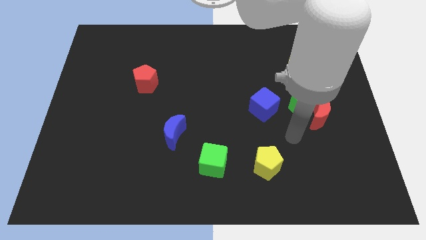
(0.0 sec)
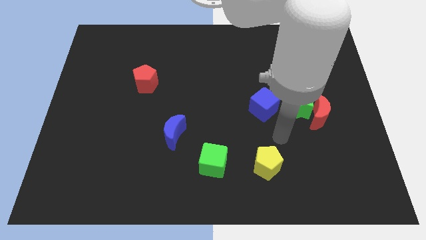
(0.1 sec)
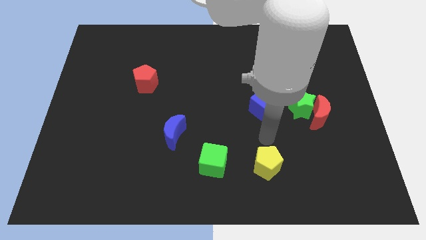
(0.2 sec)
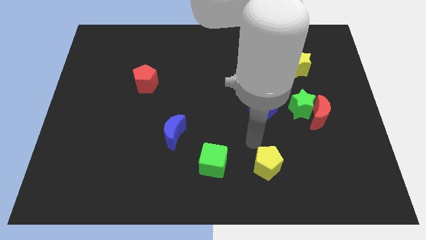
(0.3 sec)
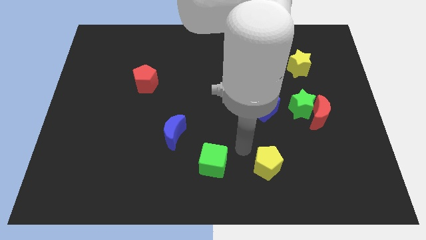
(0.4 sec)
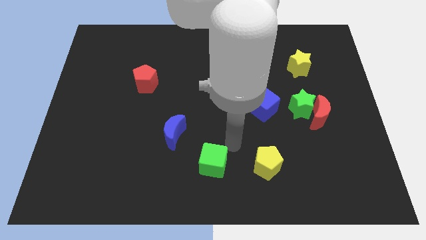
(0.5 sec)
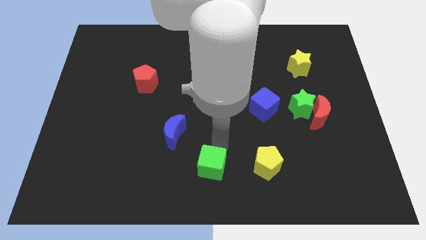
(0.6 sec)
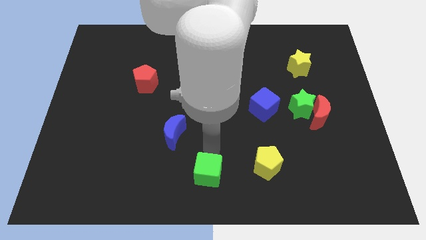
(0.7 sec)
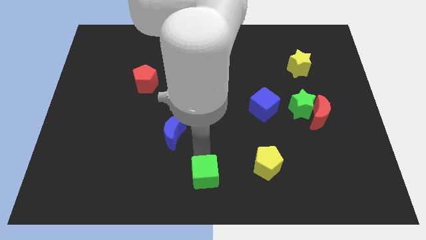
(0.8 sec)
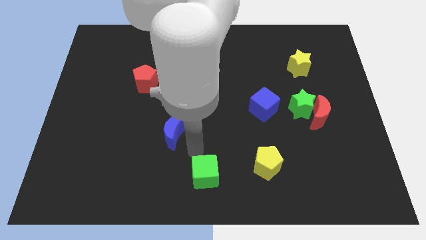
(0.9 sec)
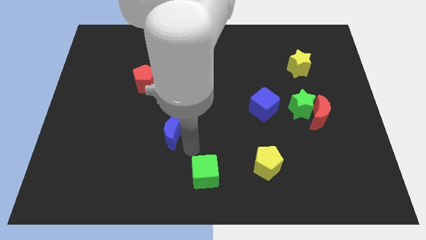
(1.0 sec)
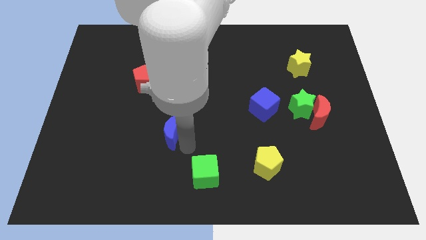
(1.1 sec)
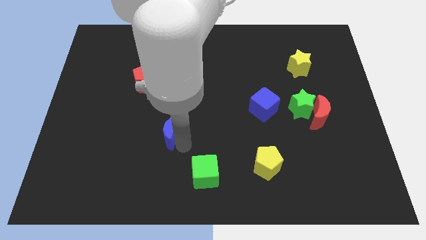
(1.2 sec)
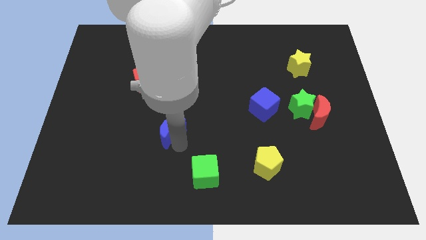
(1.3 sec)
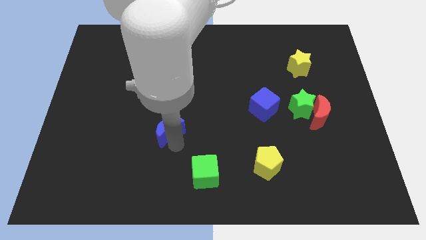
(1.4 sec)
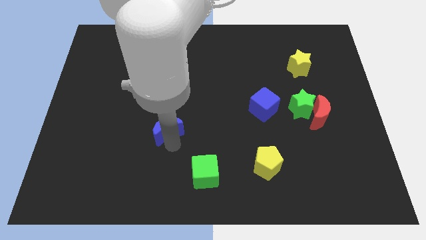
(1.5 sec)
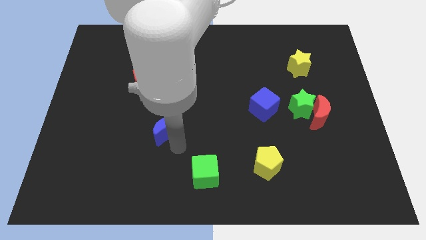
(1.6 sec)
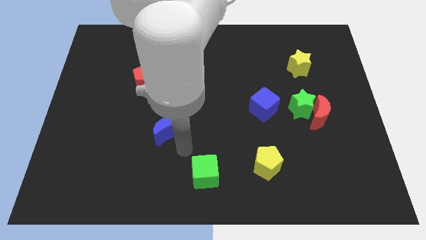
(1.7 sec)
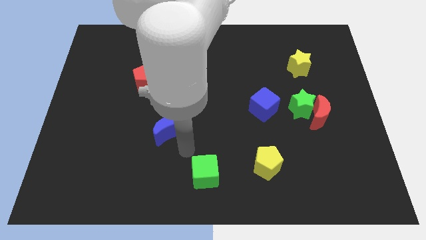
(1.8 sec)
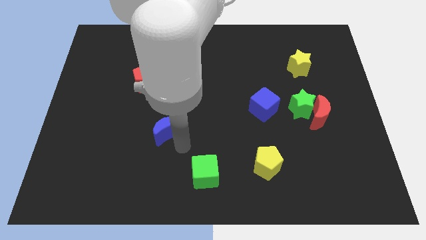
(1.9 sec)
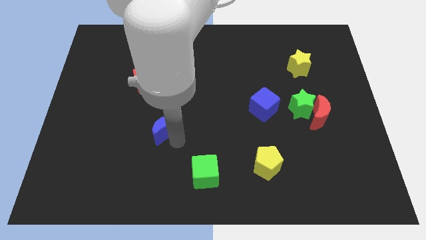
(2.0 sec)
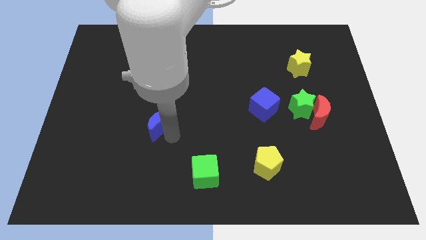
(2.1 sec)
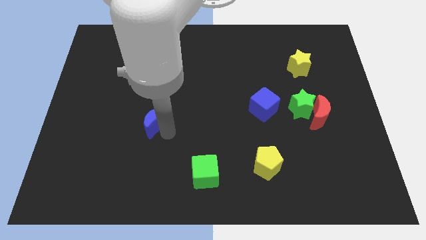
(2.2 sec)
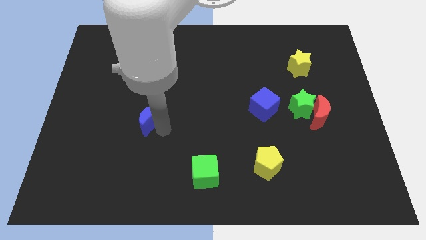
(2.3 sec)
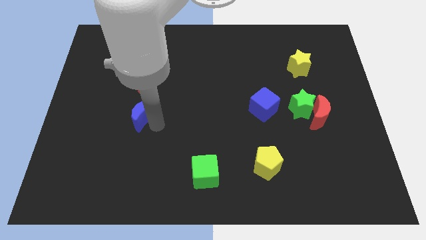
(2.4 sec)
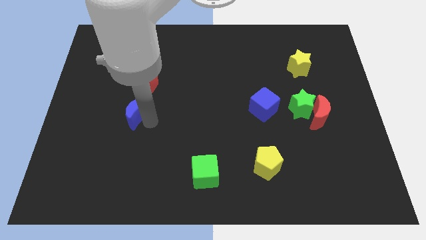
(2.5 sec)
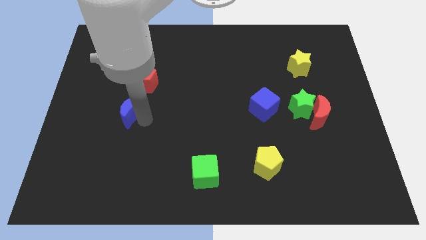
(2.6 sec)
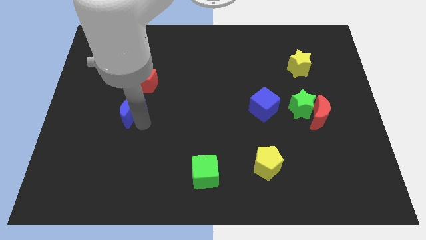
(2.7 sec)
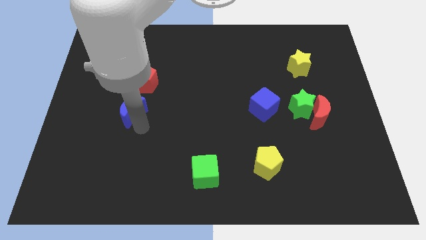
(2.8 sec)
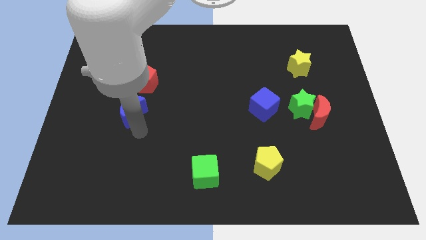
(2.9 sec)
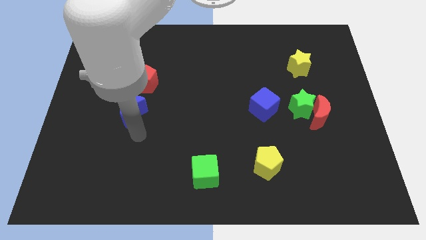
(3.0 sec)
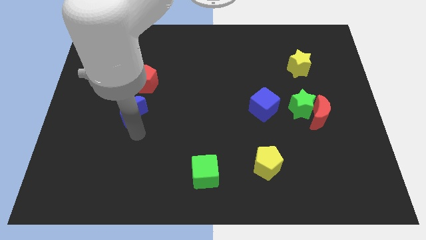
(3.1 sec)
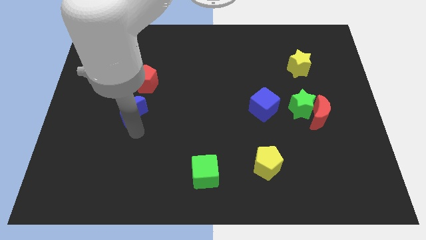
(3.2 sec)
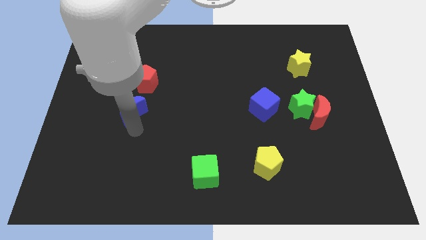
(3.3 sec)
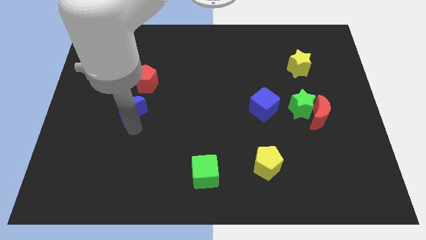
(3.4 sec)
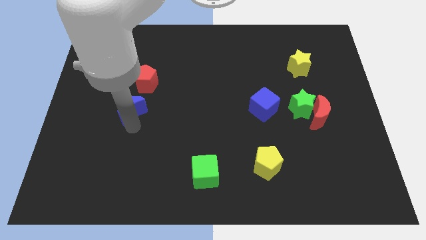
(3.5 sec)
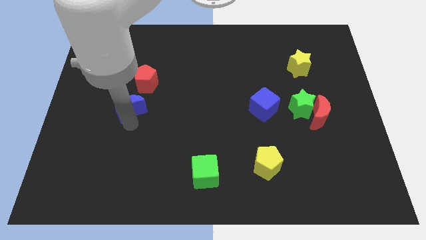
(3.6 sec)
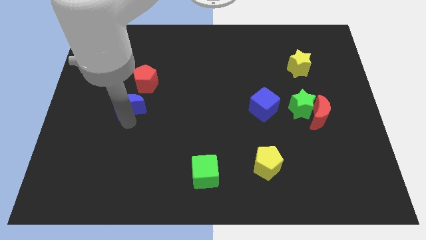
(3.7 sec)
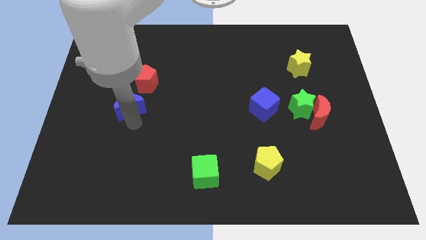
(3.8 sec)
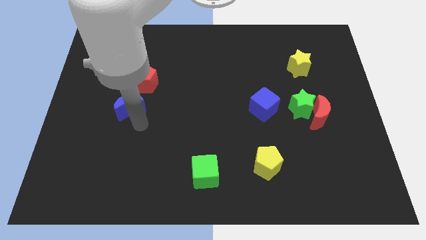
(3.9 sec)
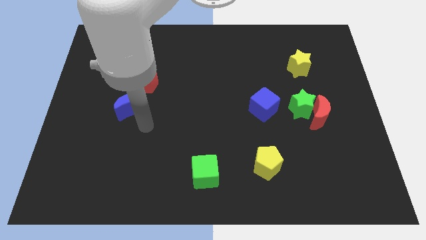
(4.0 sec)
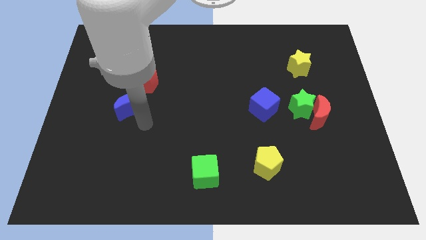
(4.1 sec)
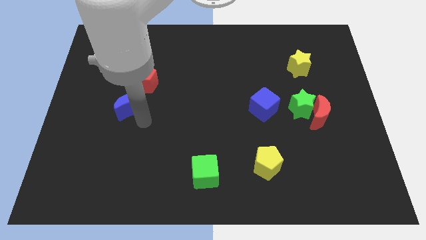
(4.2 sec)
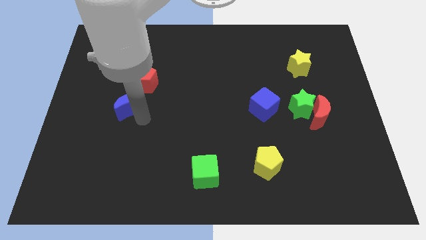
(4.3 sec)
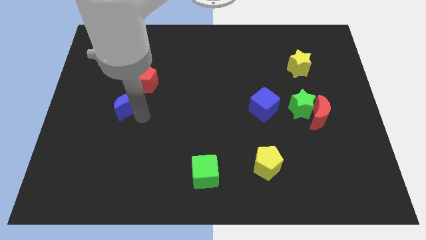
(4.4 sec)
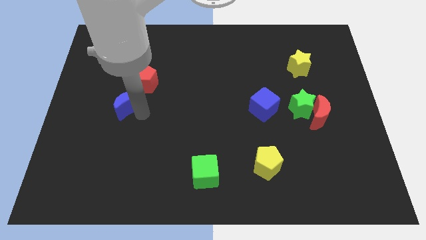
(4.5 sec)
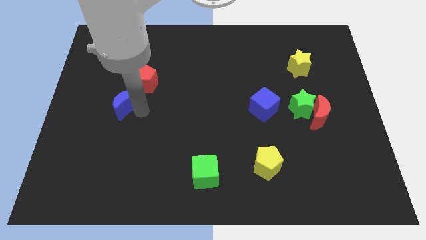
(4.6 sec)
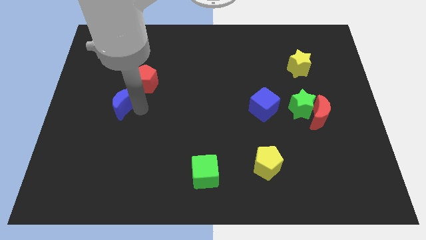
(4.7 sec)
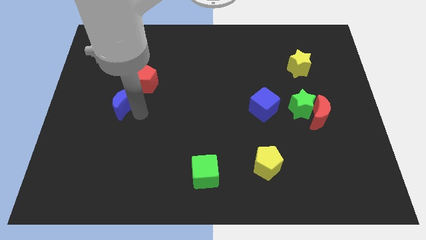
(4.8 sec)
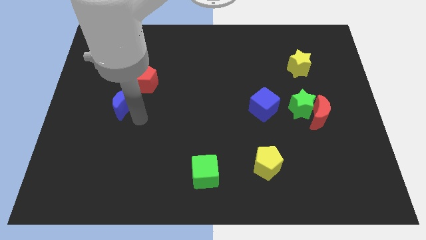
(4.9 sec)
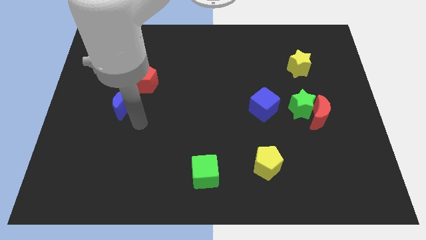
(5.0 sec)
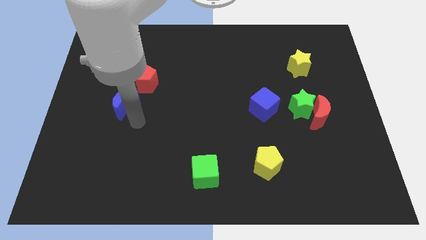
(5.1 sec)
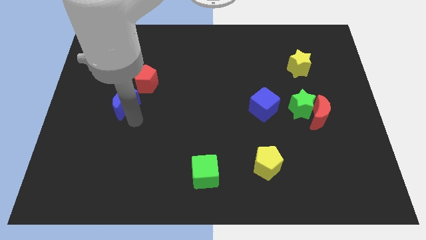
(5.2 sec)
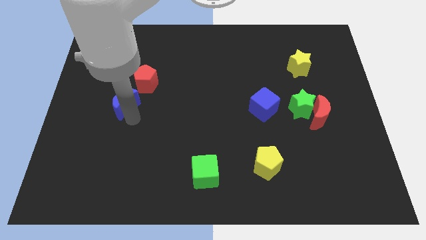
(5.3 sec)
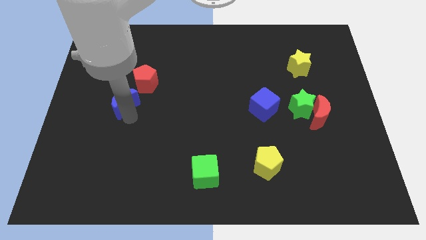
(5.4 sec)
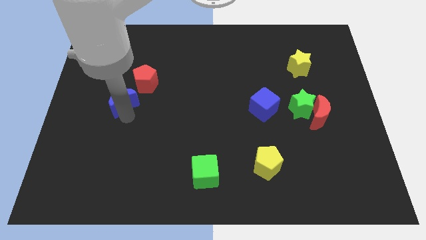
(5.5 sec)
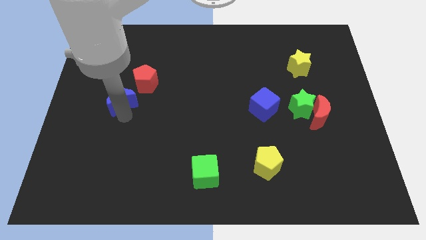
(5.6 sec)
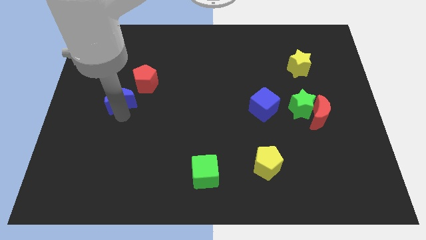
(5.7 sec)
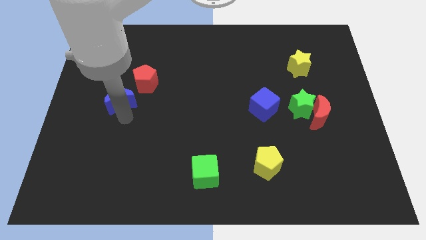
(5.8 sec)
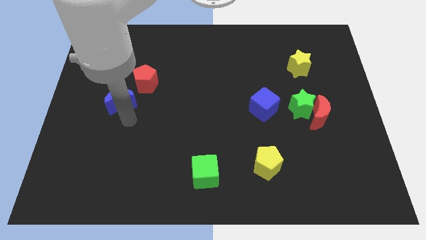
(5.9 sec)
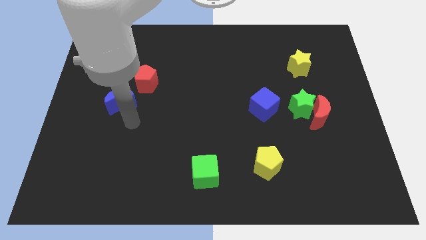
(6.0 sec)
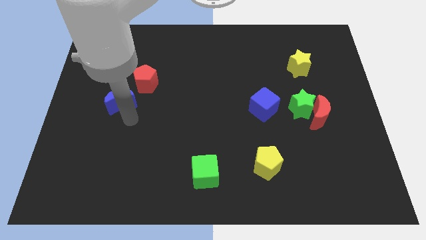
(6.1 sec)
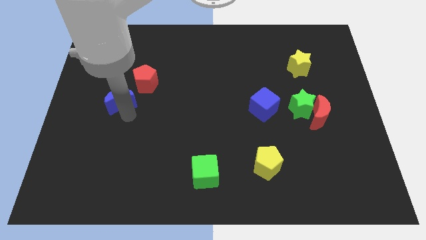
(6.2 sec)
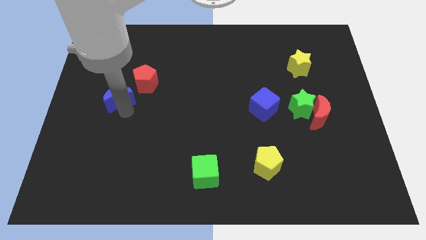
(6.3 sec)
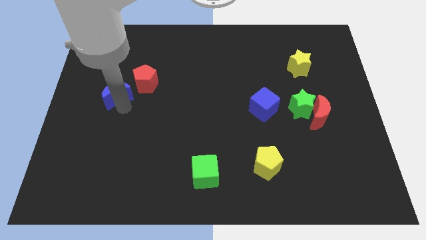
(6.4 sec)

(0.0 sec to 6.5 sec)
push the blue moon just left of the red pentagon

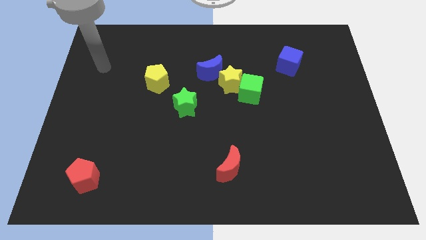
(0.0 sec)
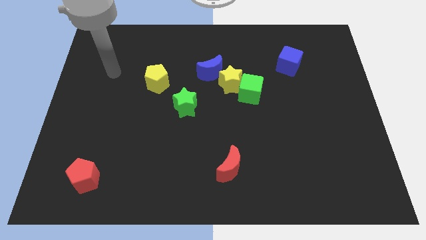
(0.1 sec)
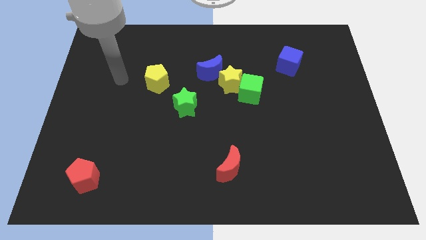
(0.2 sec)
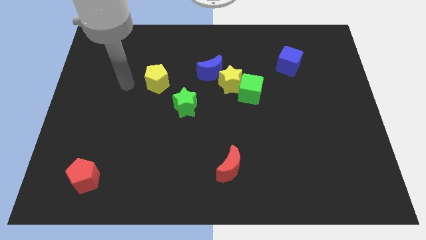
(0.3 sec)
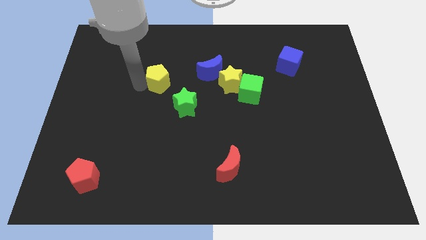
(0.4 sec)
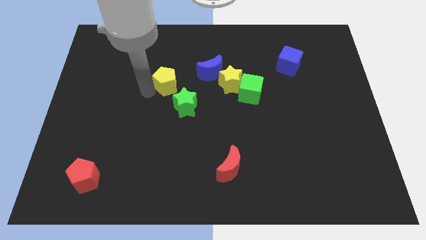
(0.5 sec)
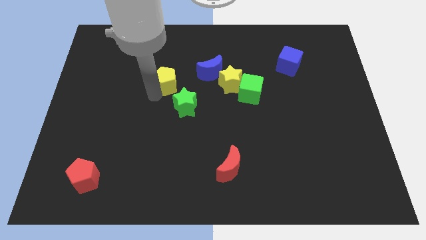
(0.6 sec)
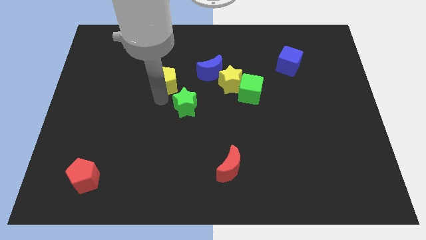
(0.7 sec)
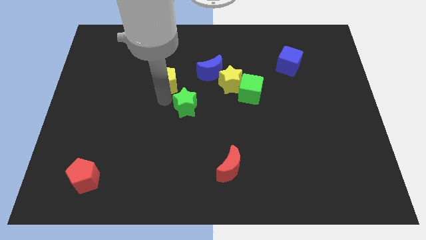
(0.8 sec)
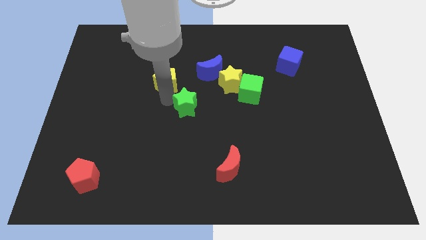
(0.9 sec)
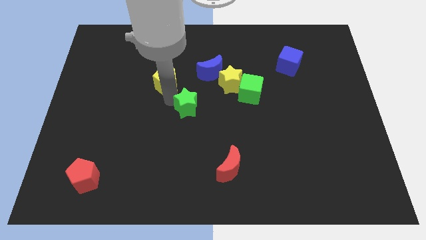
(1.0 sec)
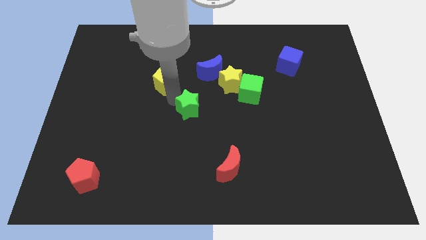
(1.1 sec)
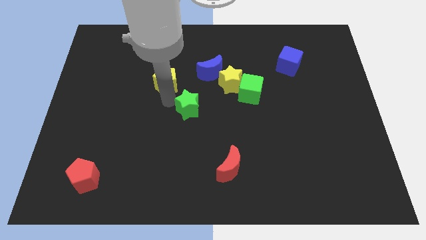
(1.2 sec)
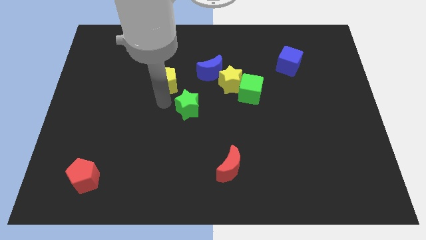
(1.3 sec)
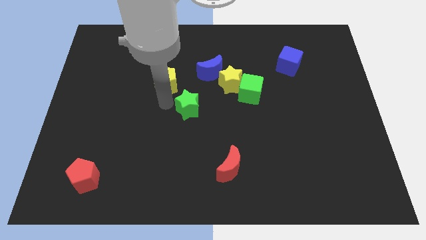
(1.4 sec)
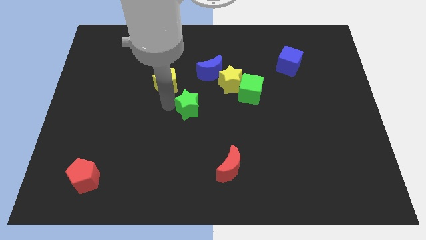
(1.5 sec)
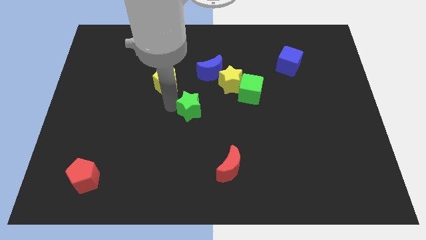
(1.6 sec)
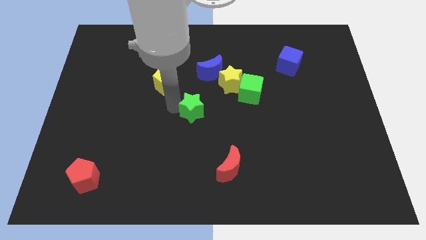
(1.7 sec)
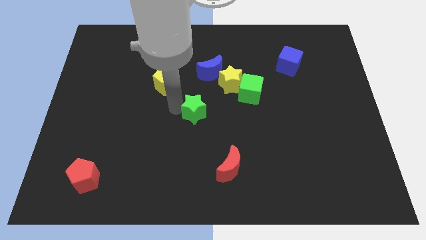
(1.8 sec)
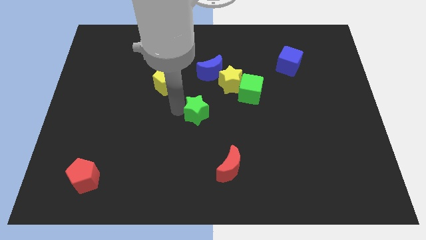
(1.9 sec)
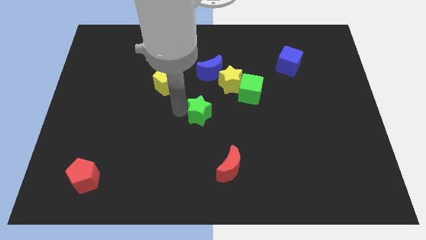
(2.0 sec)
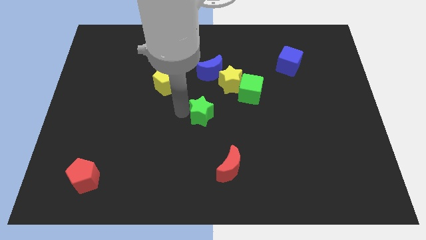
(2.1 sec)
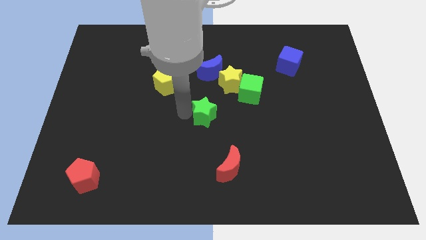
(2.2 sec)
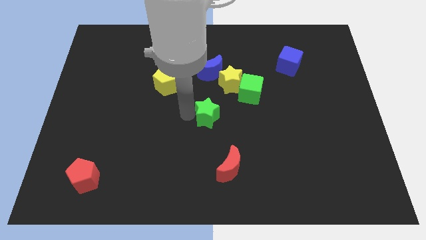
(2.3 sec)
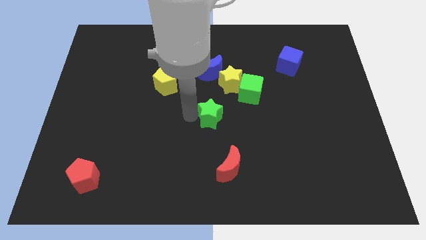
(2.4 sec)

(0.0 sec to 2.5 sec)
slide the green star to the bottom side of the yellow star
